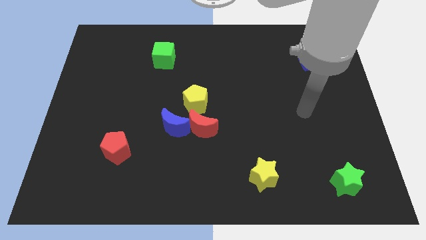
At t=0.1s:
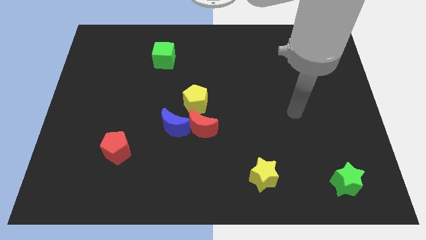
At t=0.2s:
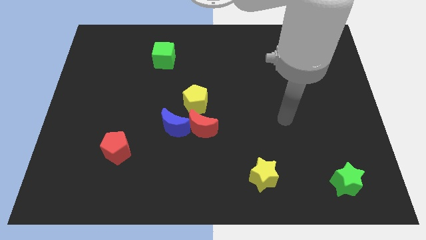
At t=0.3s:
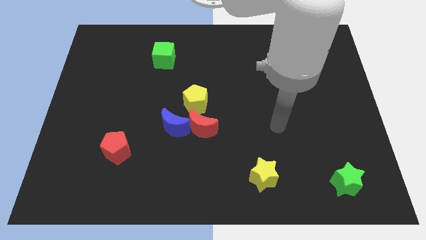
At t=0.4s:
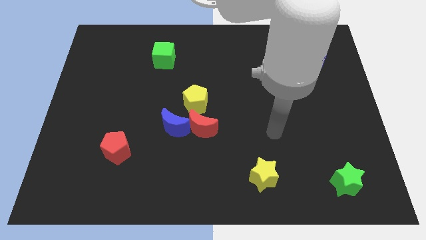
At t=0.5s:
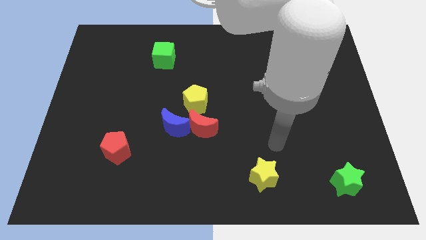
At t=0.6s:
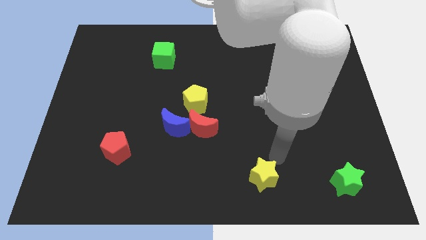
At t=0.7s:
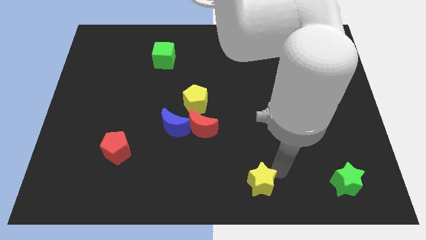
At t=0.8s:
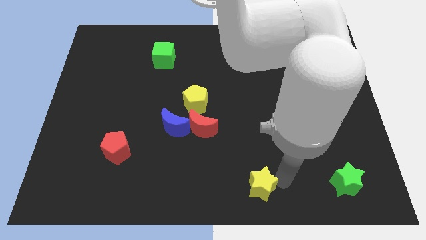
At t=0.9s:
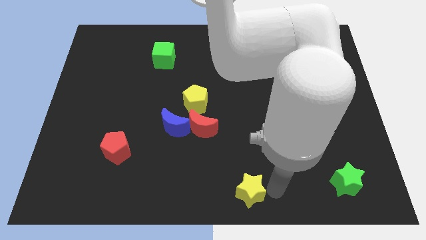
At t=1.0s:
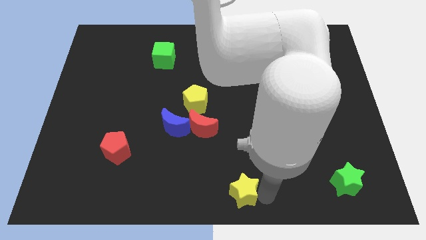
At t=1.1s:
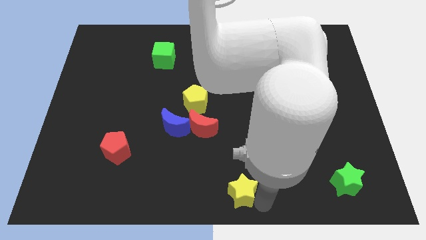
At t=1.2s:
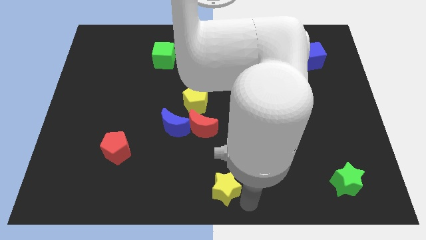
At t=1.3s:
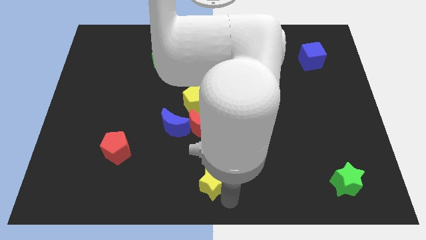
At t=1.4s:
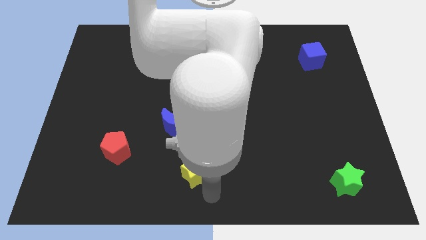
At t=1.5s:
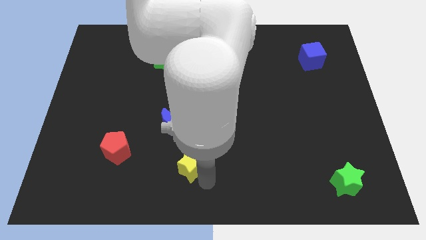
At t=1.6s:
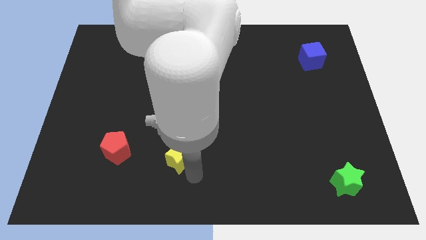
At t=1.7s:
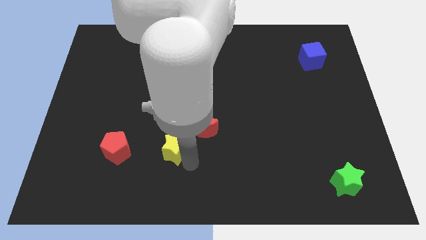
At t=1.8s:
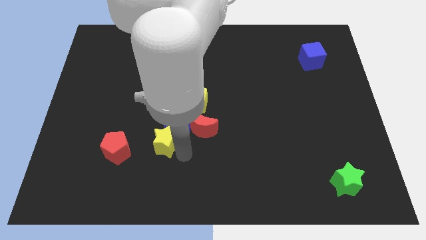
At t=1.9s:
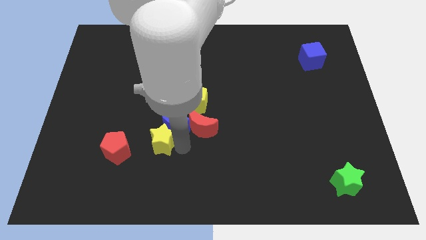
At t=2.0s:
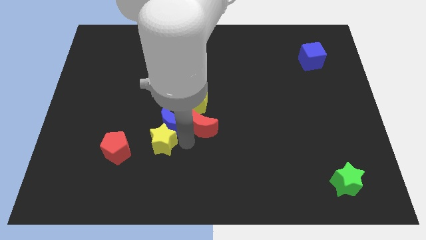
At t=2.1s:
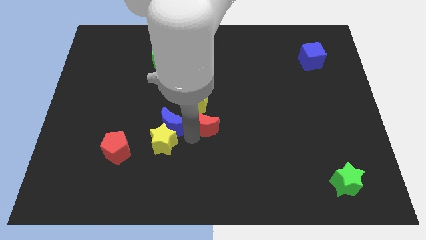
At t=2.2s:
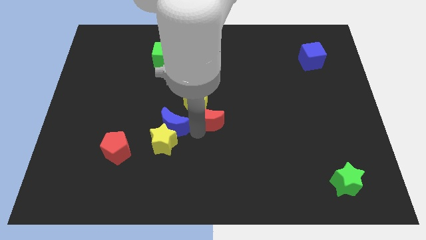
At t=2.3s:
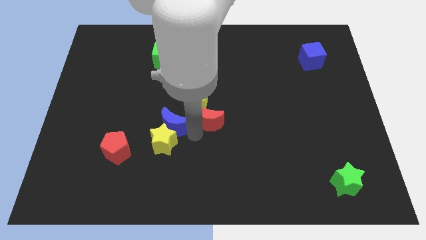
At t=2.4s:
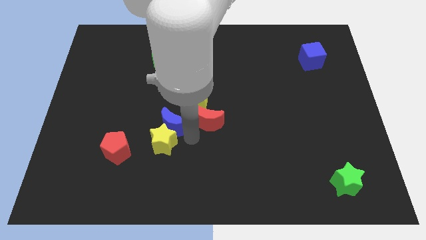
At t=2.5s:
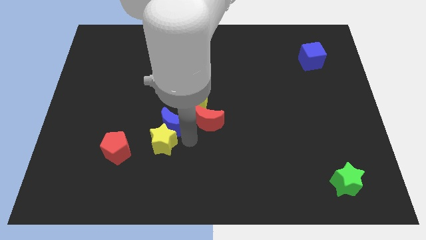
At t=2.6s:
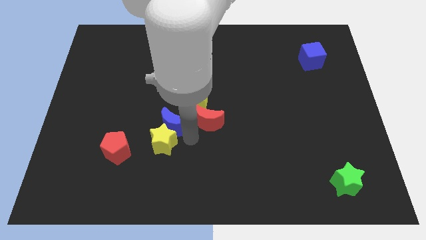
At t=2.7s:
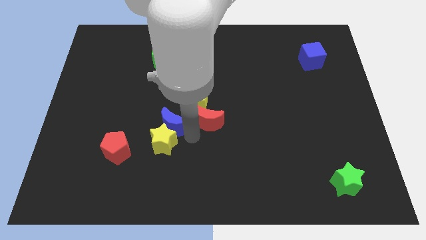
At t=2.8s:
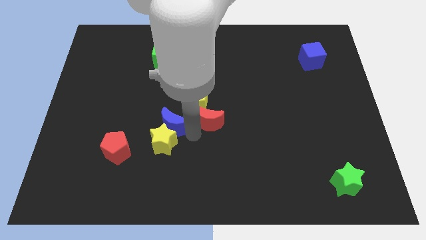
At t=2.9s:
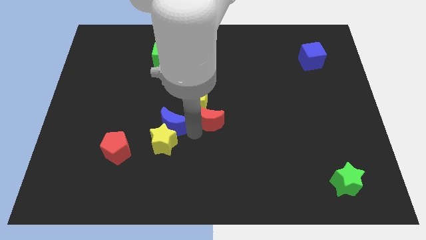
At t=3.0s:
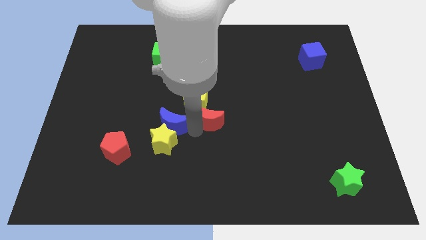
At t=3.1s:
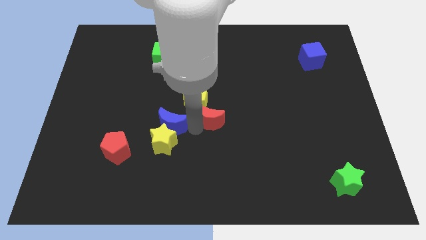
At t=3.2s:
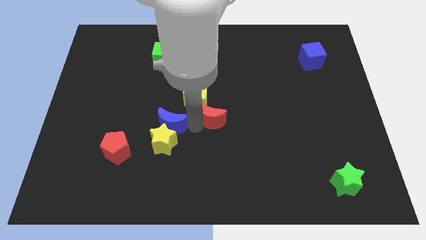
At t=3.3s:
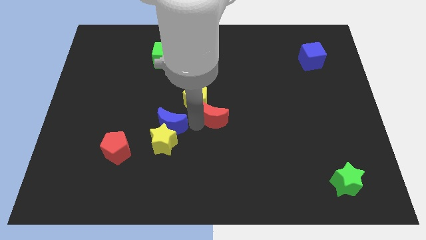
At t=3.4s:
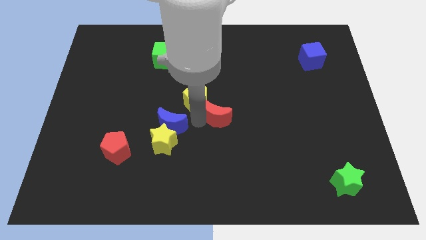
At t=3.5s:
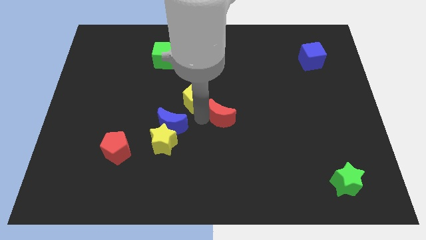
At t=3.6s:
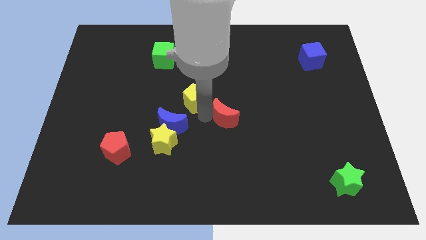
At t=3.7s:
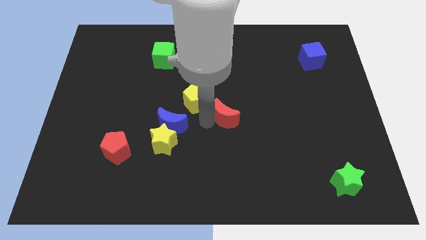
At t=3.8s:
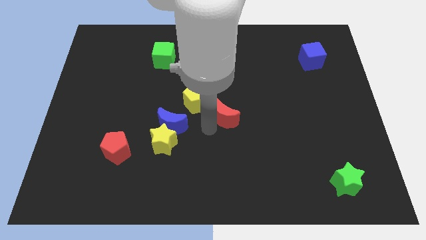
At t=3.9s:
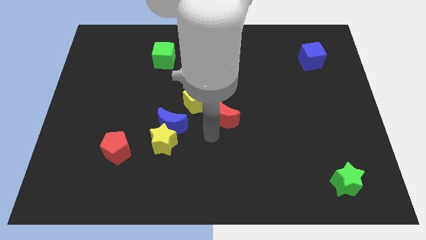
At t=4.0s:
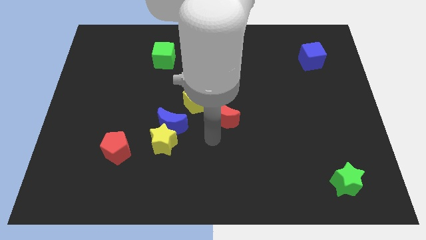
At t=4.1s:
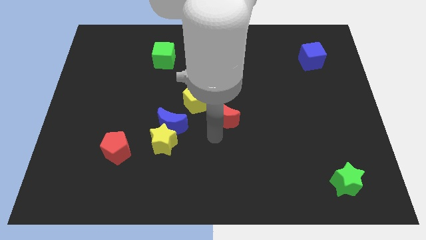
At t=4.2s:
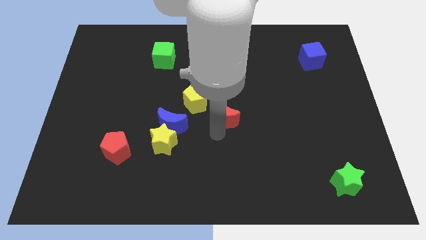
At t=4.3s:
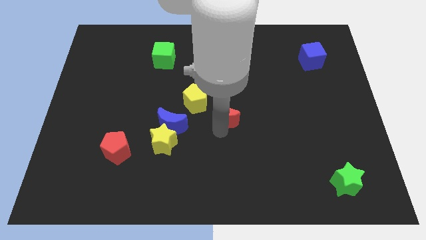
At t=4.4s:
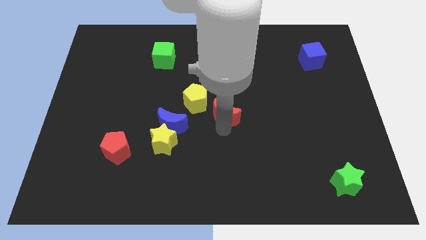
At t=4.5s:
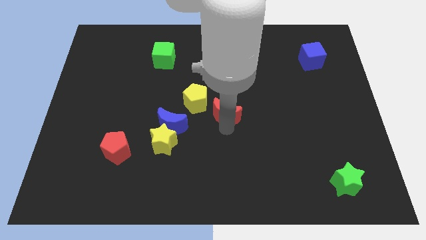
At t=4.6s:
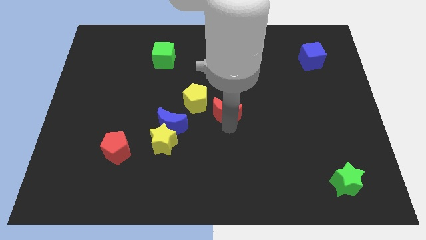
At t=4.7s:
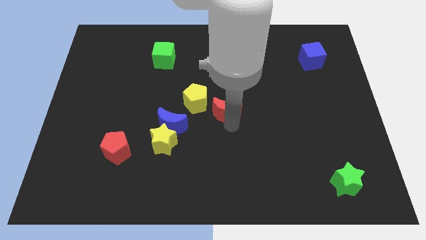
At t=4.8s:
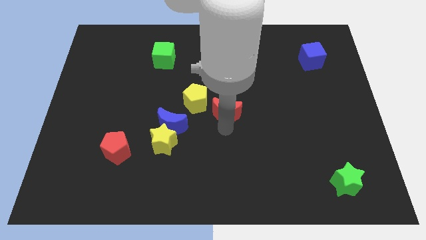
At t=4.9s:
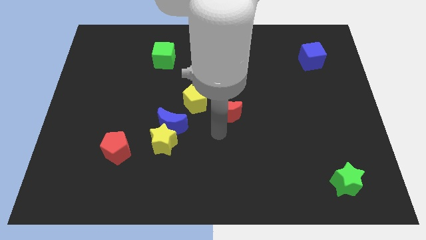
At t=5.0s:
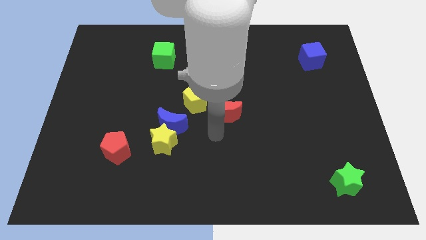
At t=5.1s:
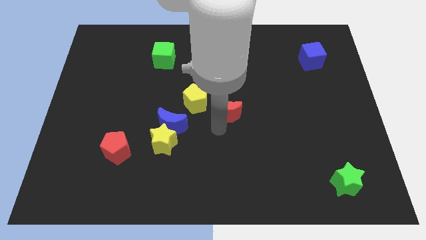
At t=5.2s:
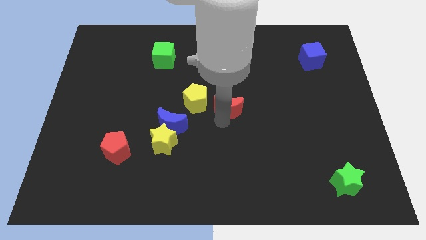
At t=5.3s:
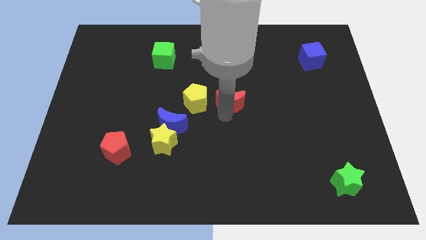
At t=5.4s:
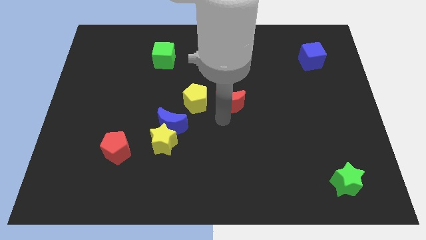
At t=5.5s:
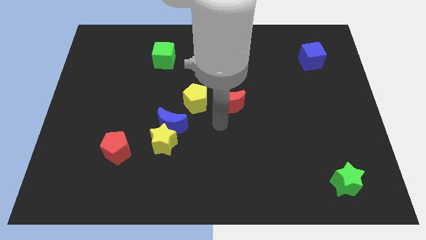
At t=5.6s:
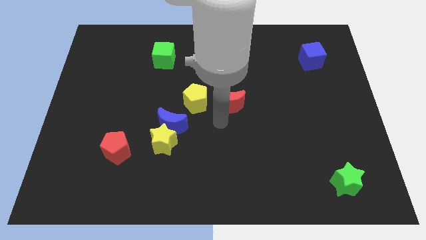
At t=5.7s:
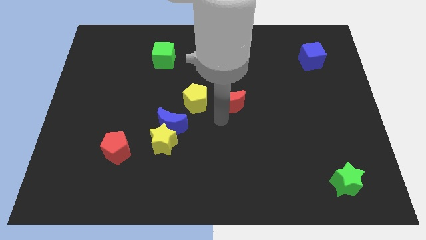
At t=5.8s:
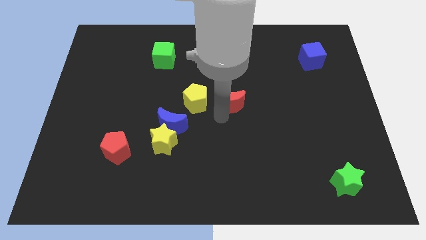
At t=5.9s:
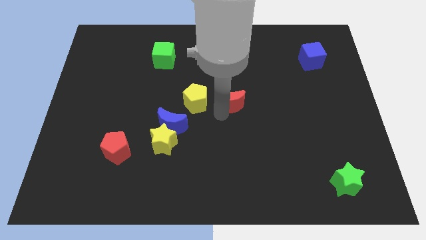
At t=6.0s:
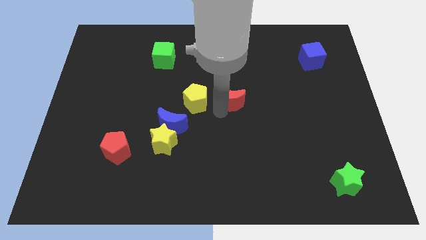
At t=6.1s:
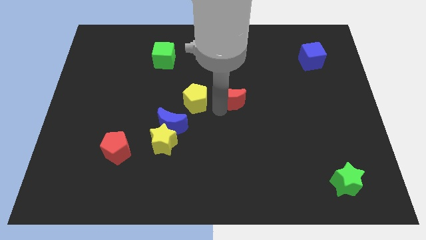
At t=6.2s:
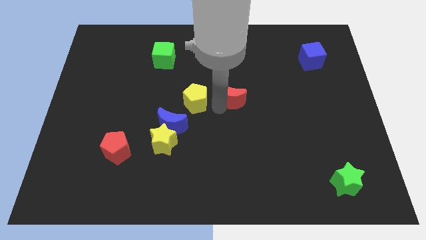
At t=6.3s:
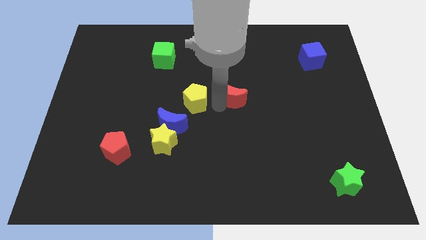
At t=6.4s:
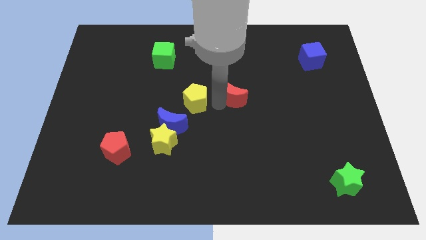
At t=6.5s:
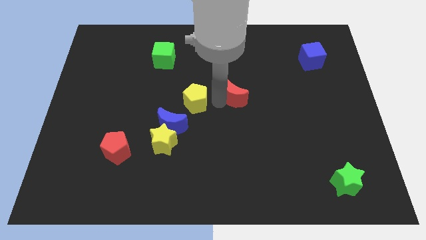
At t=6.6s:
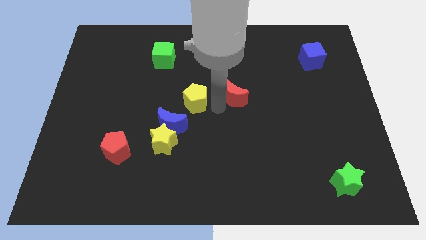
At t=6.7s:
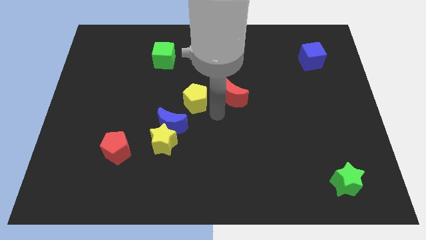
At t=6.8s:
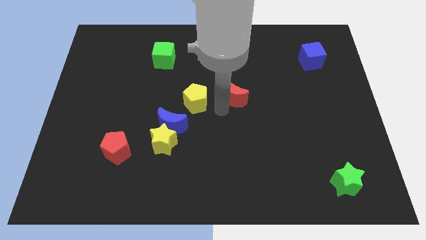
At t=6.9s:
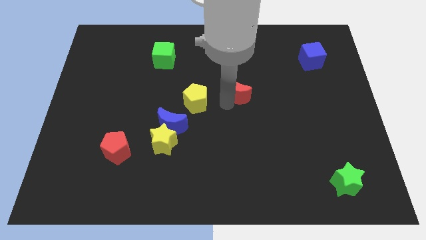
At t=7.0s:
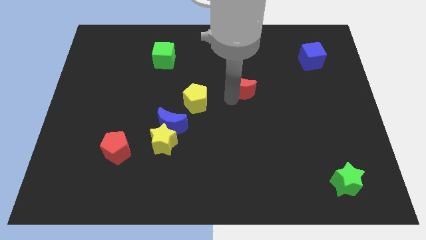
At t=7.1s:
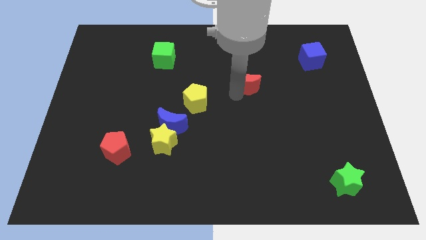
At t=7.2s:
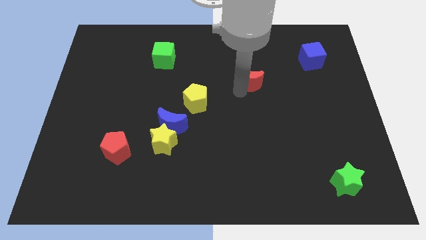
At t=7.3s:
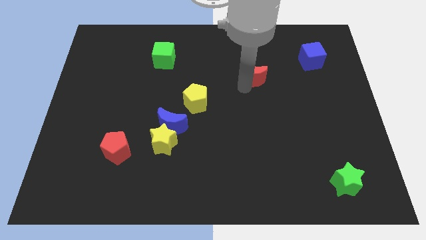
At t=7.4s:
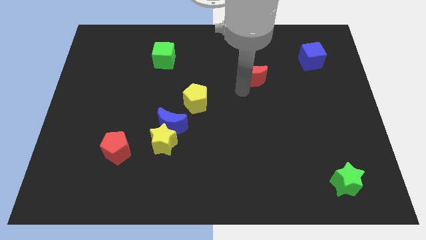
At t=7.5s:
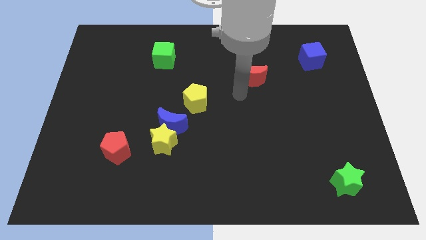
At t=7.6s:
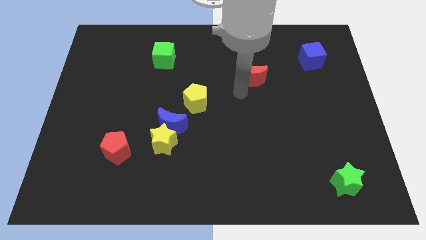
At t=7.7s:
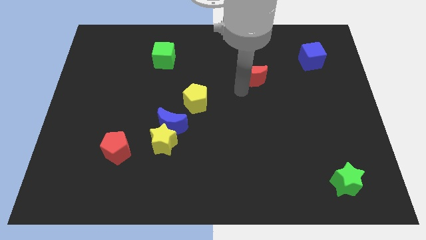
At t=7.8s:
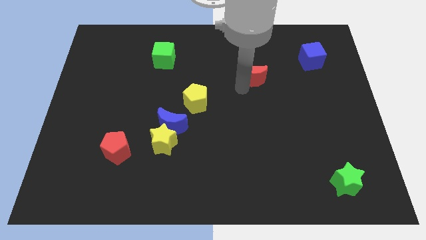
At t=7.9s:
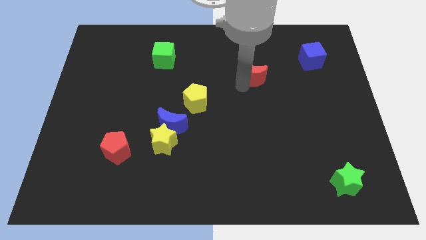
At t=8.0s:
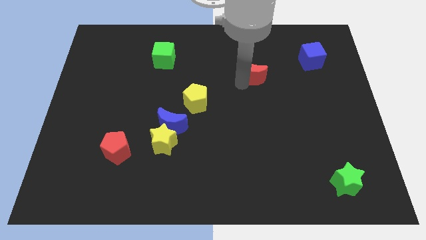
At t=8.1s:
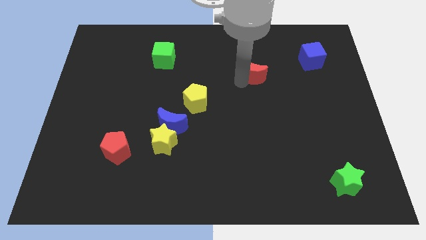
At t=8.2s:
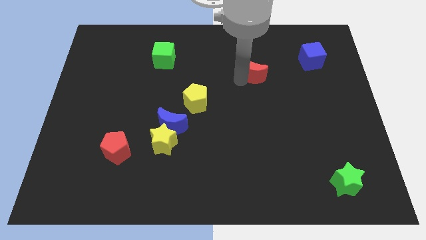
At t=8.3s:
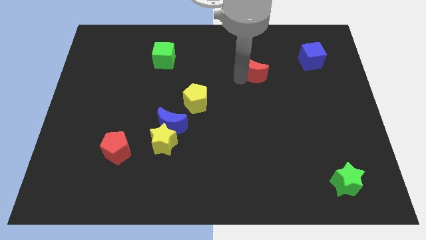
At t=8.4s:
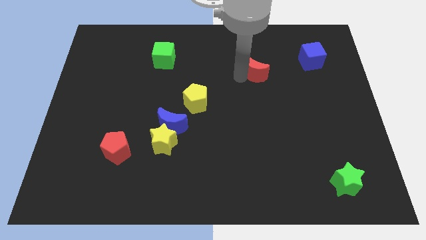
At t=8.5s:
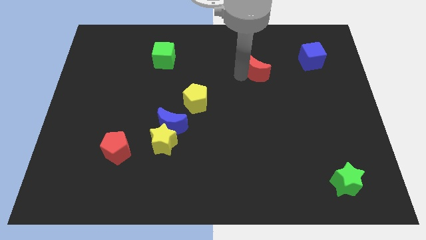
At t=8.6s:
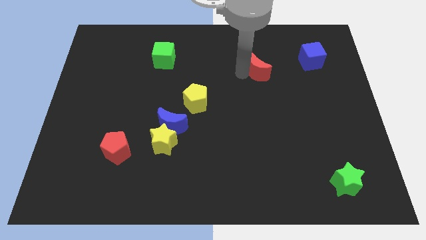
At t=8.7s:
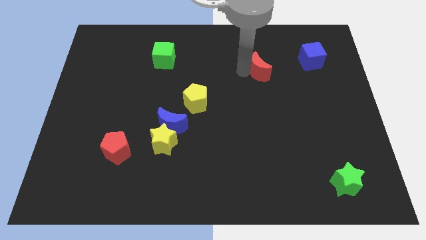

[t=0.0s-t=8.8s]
push the red moon to the left of the blue cube
